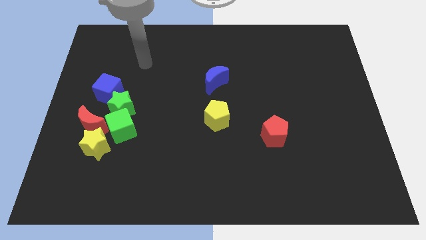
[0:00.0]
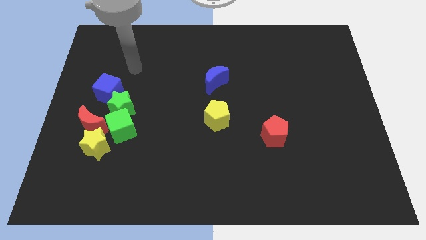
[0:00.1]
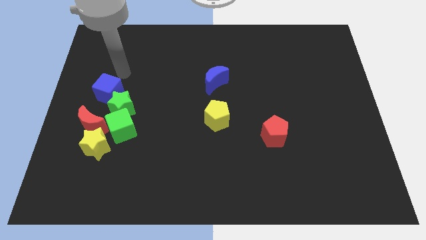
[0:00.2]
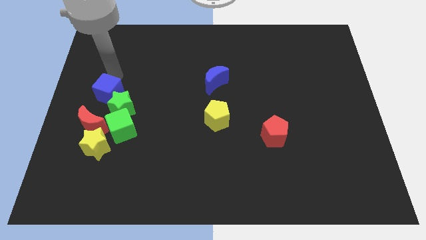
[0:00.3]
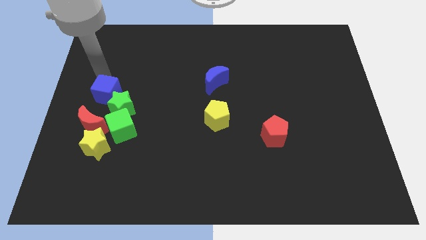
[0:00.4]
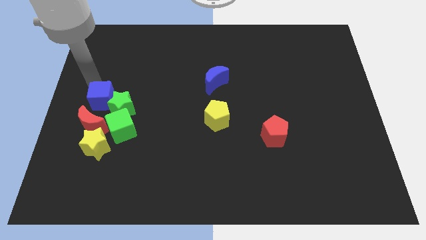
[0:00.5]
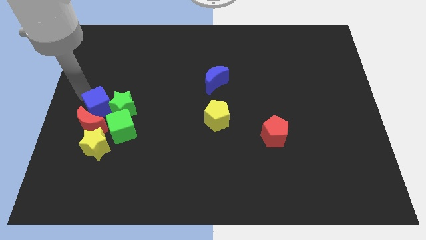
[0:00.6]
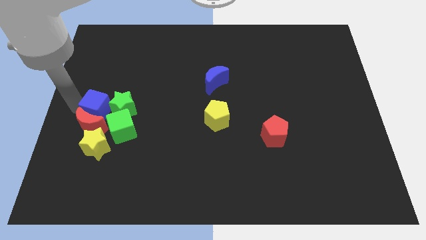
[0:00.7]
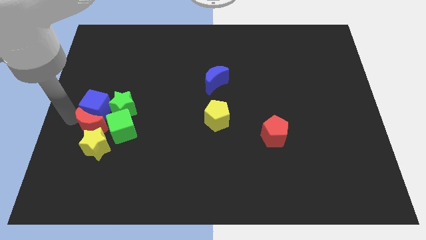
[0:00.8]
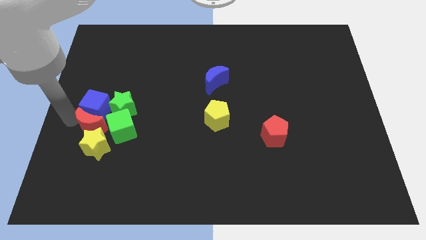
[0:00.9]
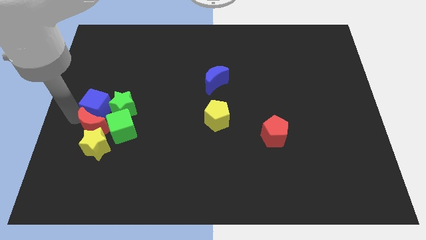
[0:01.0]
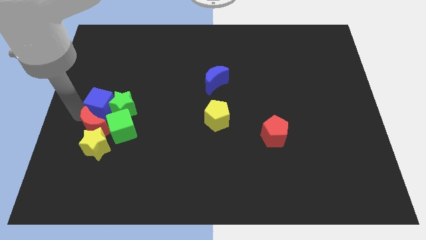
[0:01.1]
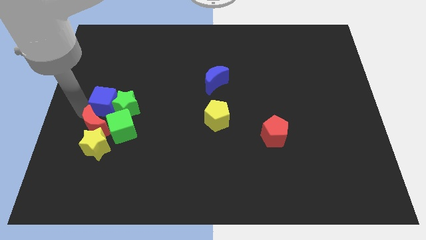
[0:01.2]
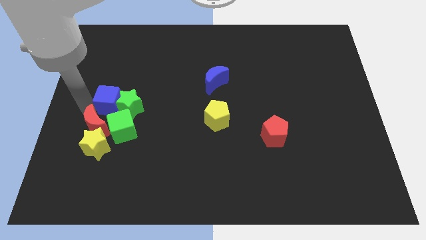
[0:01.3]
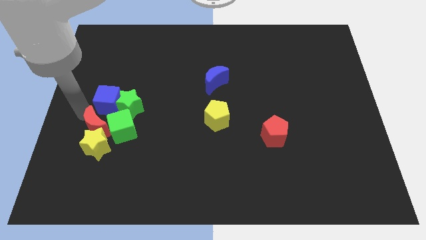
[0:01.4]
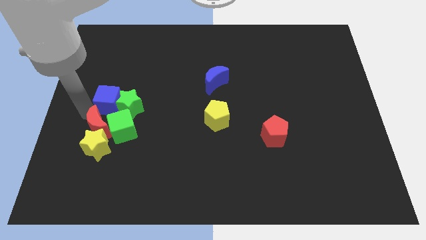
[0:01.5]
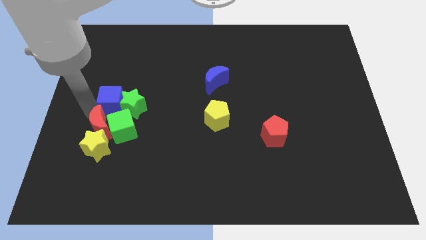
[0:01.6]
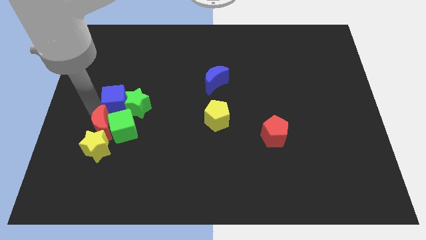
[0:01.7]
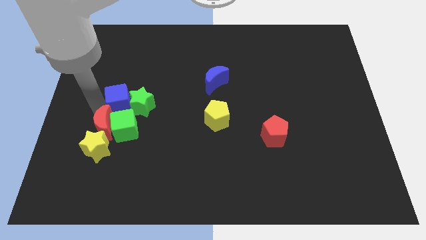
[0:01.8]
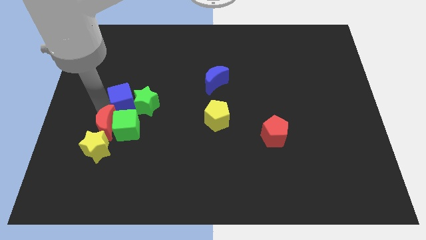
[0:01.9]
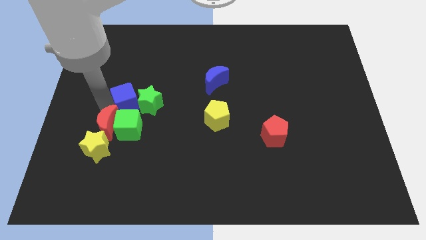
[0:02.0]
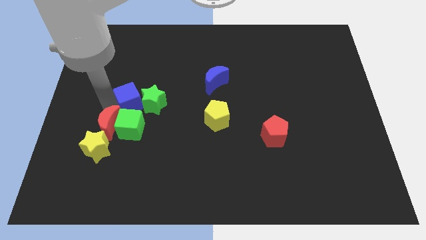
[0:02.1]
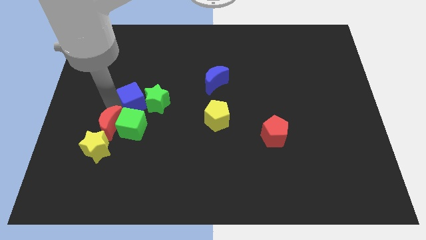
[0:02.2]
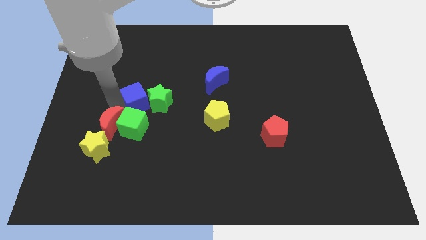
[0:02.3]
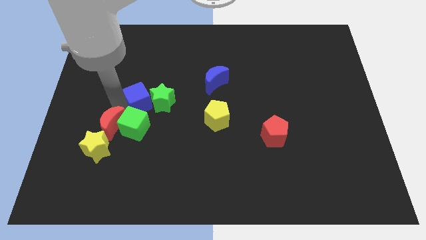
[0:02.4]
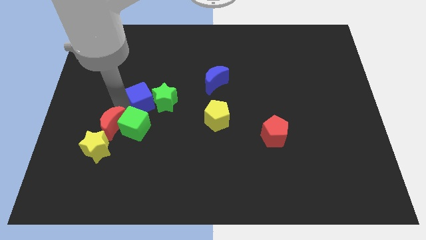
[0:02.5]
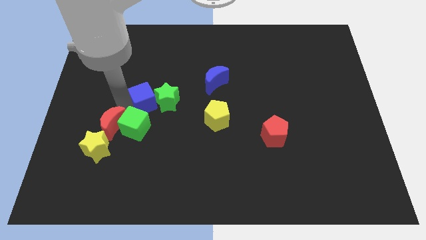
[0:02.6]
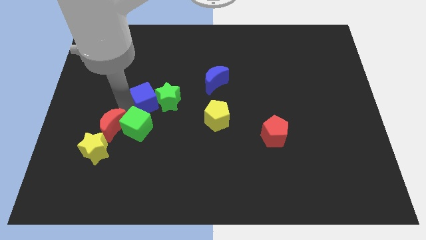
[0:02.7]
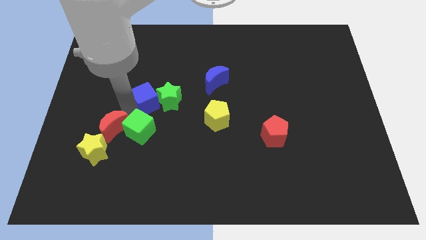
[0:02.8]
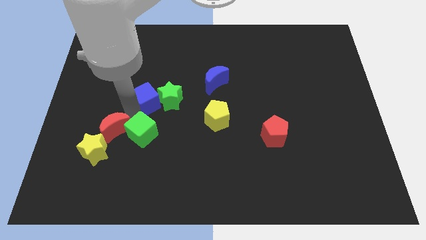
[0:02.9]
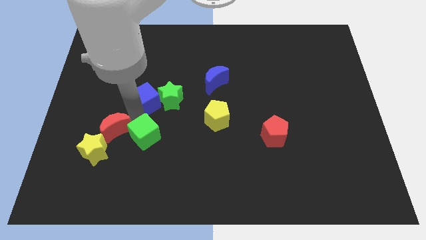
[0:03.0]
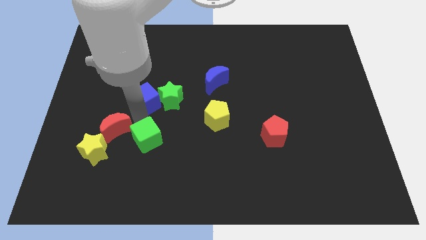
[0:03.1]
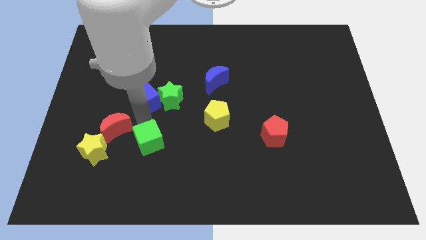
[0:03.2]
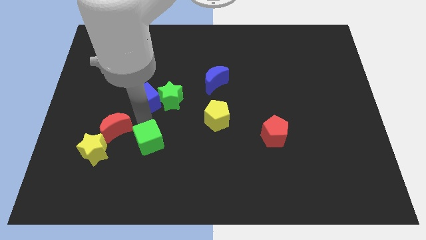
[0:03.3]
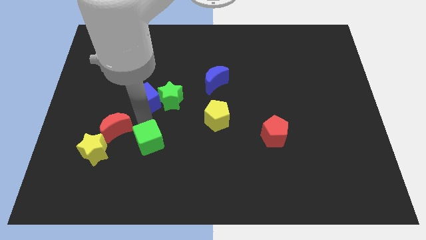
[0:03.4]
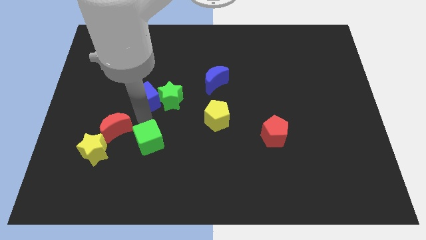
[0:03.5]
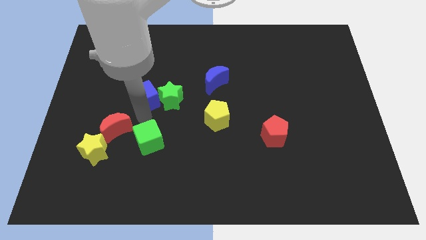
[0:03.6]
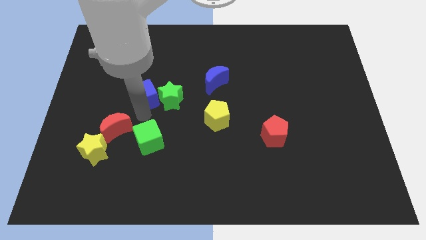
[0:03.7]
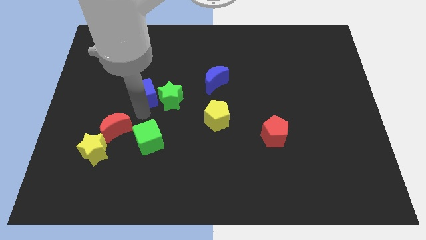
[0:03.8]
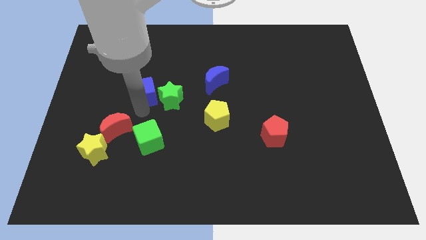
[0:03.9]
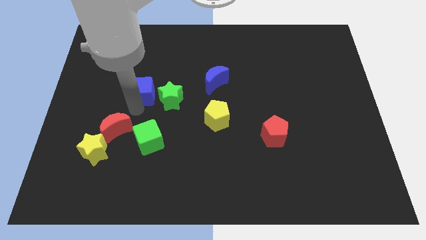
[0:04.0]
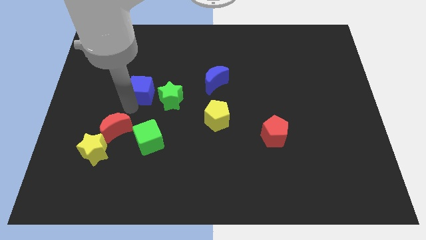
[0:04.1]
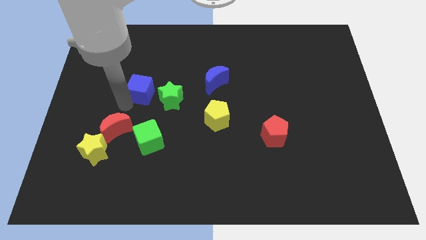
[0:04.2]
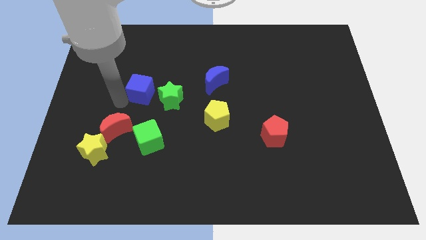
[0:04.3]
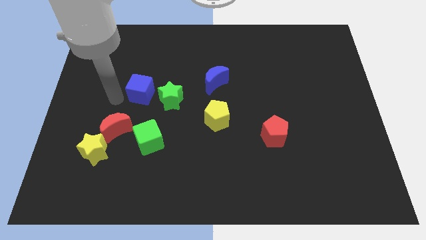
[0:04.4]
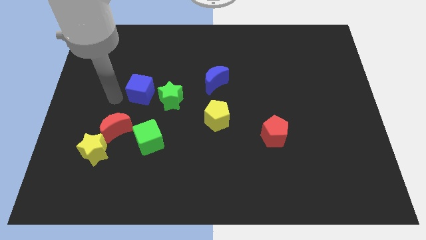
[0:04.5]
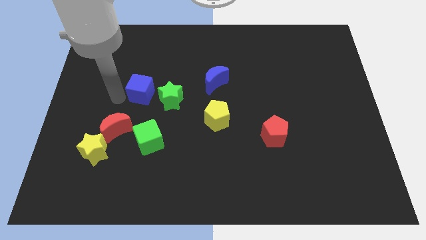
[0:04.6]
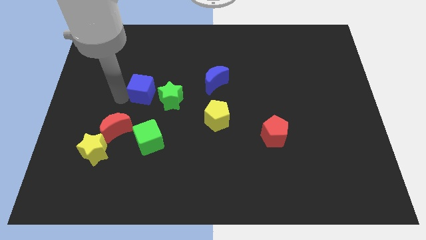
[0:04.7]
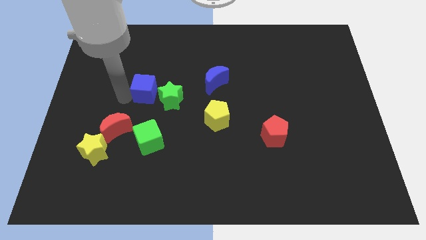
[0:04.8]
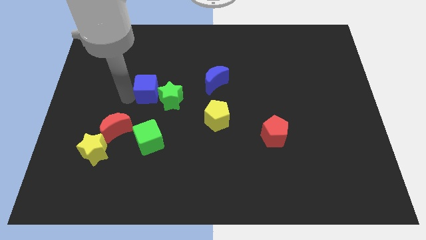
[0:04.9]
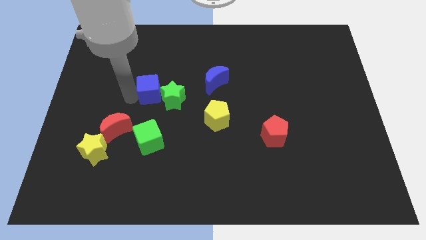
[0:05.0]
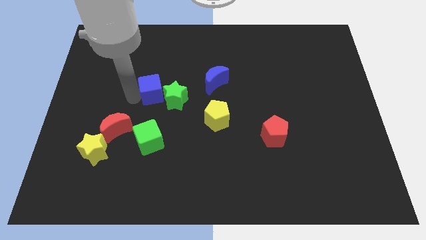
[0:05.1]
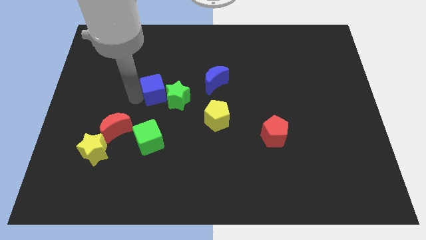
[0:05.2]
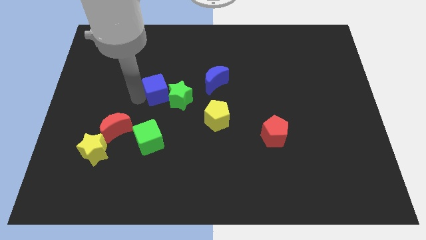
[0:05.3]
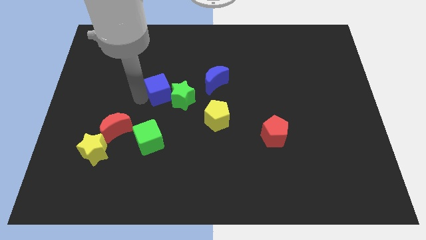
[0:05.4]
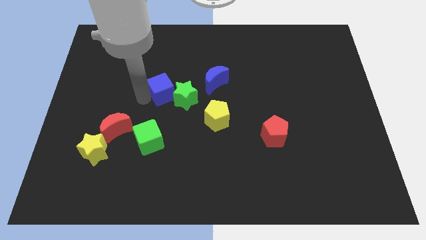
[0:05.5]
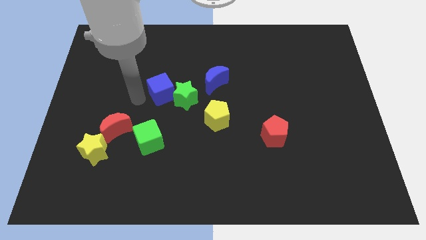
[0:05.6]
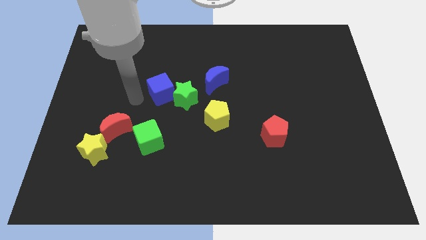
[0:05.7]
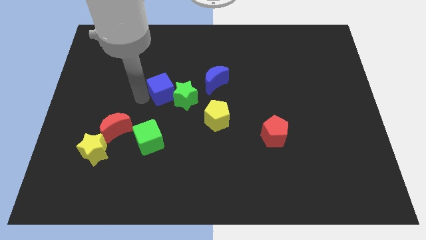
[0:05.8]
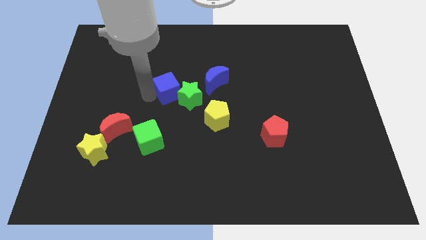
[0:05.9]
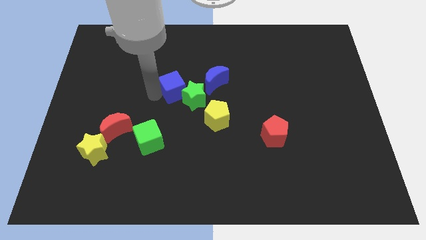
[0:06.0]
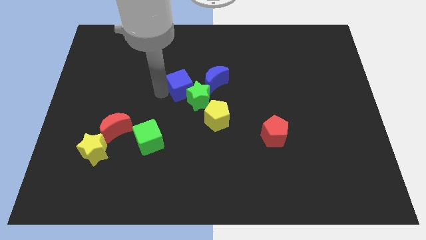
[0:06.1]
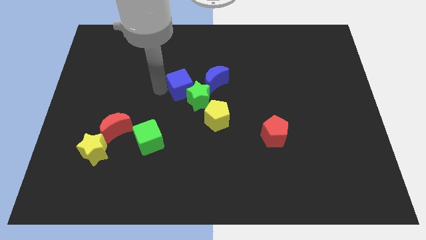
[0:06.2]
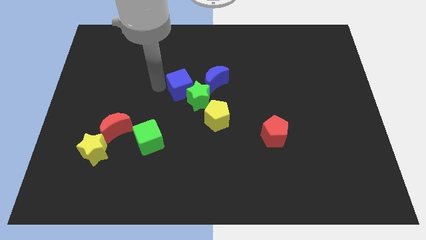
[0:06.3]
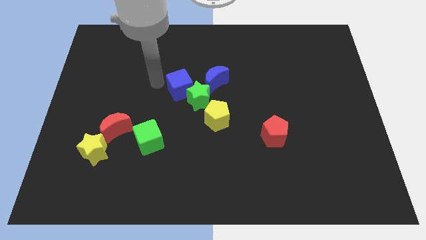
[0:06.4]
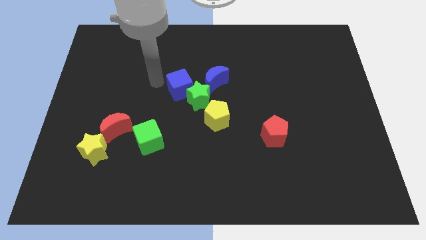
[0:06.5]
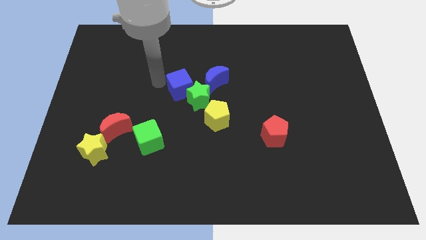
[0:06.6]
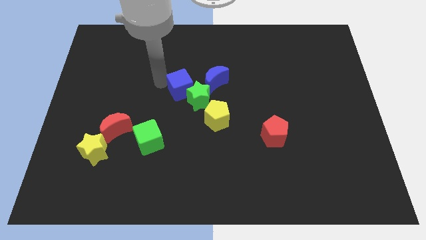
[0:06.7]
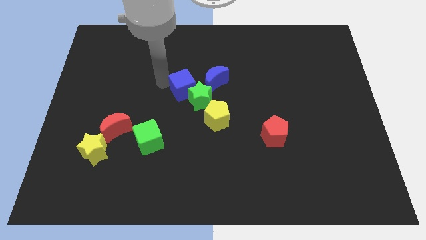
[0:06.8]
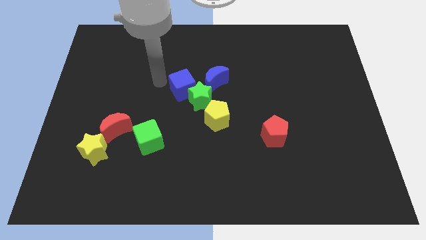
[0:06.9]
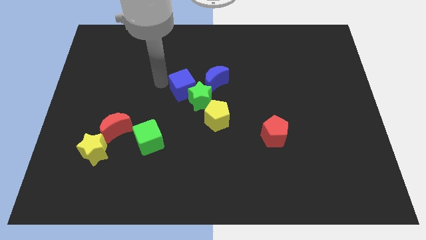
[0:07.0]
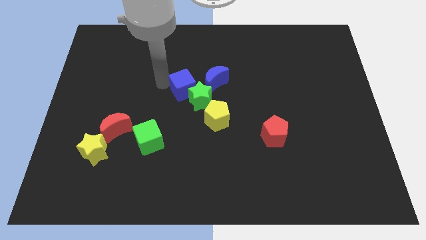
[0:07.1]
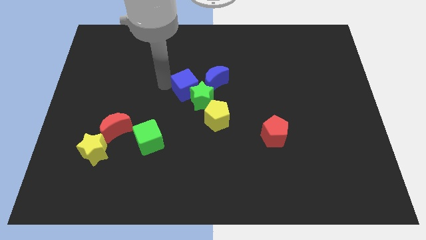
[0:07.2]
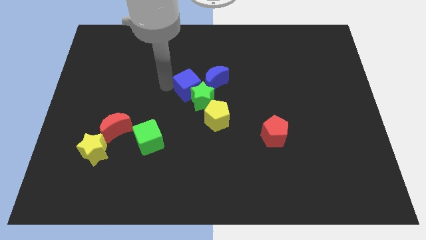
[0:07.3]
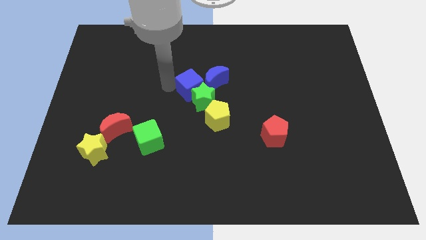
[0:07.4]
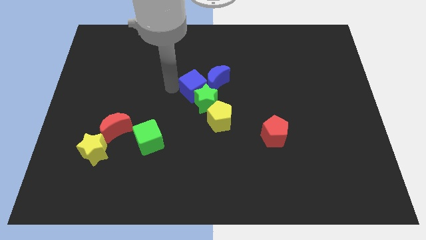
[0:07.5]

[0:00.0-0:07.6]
push the blue cube to the right

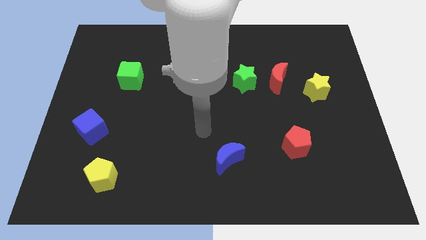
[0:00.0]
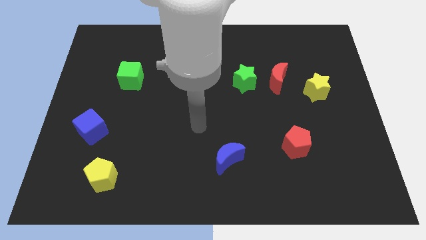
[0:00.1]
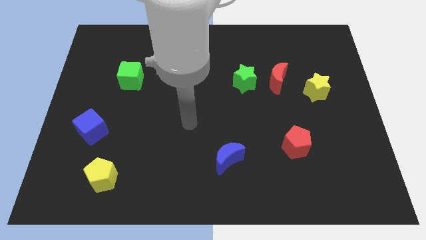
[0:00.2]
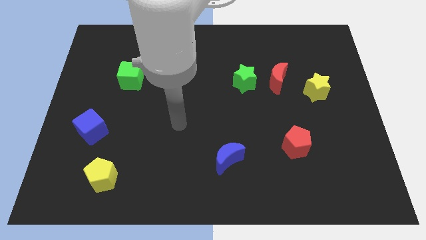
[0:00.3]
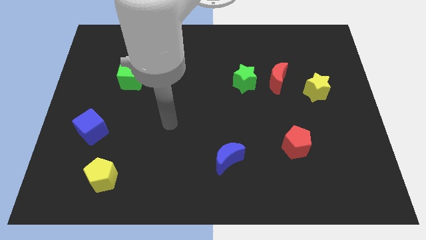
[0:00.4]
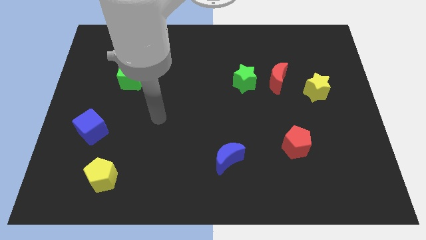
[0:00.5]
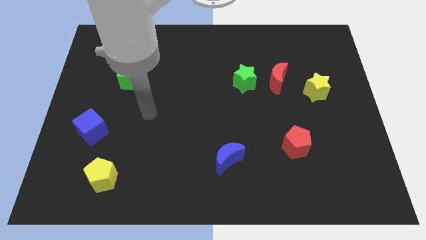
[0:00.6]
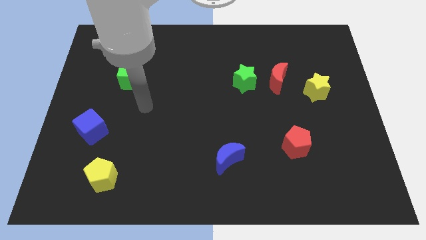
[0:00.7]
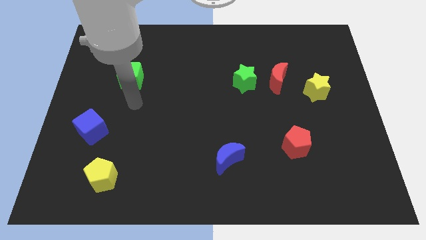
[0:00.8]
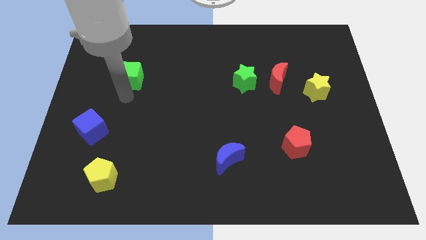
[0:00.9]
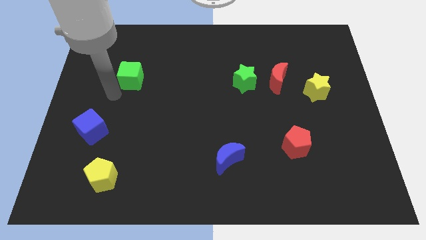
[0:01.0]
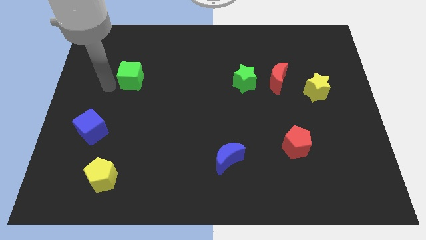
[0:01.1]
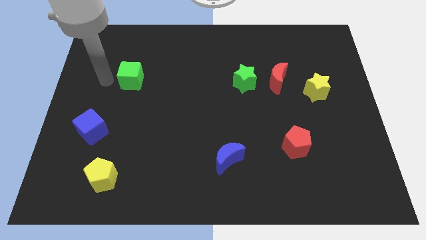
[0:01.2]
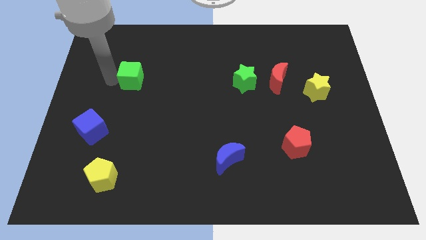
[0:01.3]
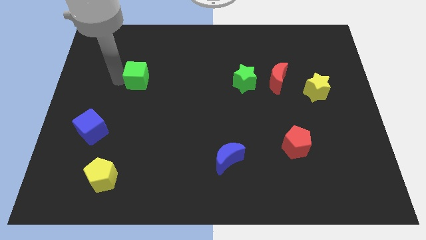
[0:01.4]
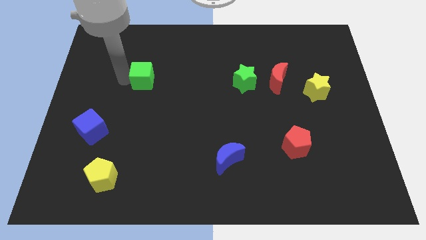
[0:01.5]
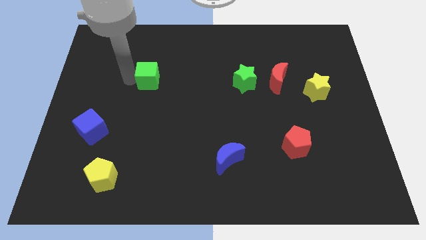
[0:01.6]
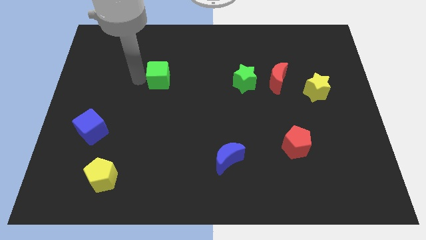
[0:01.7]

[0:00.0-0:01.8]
move the green cube slightly to the right
